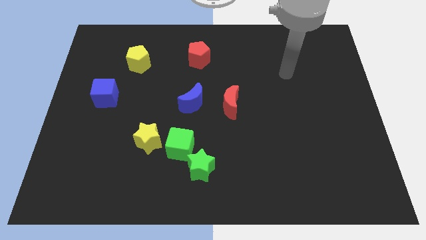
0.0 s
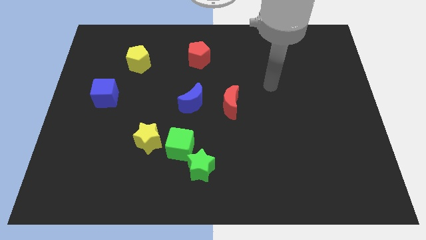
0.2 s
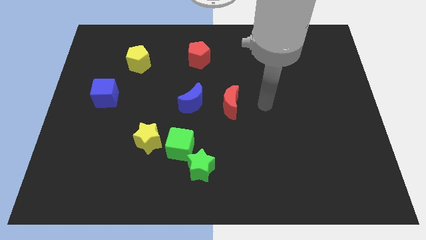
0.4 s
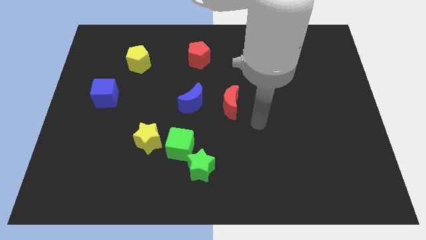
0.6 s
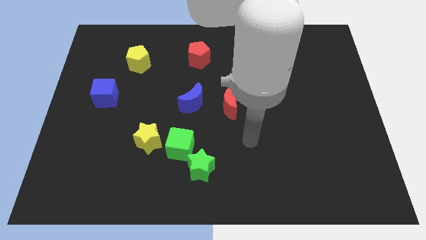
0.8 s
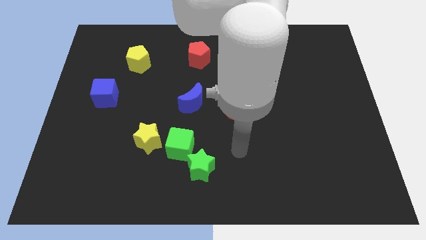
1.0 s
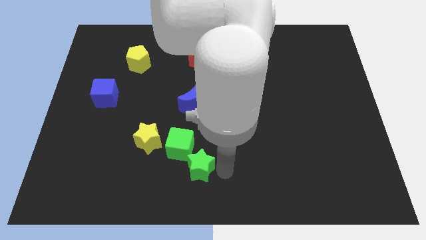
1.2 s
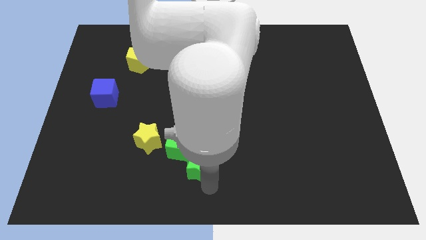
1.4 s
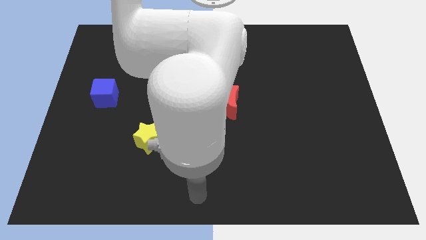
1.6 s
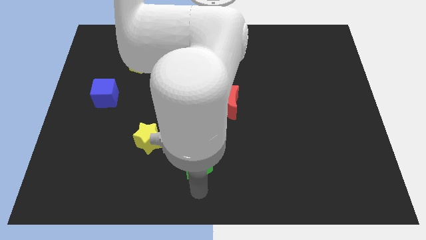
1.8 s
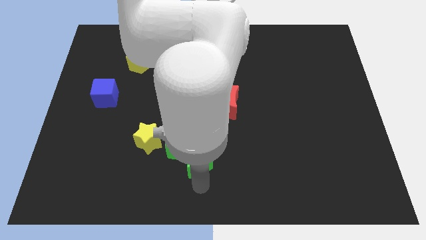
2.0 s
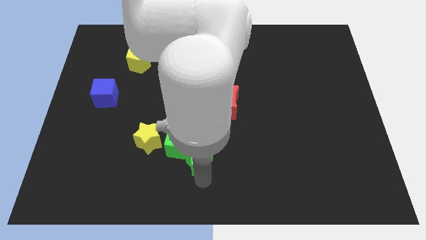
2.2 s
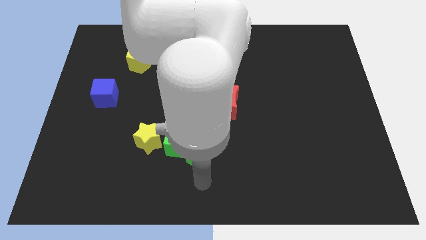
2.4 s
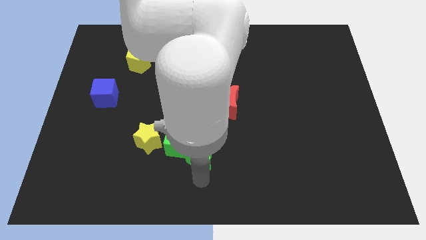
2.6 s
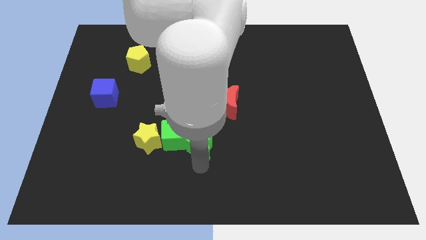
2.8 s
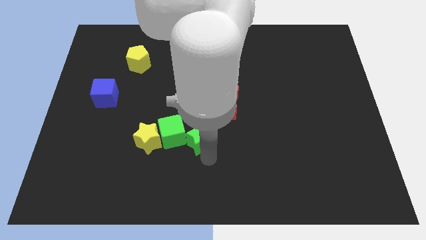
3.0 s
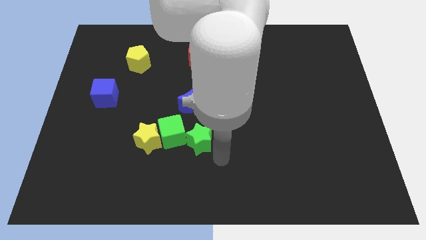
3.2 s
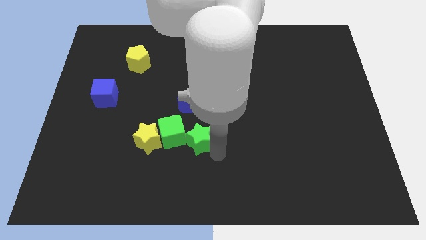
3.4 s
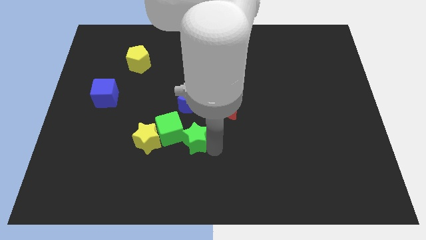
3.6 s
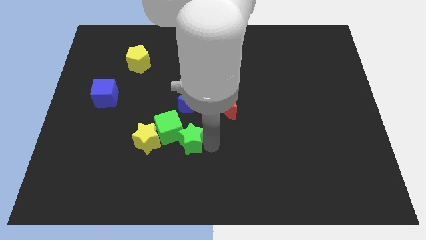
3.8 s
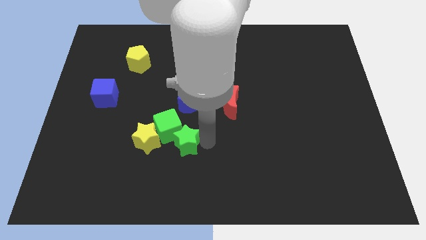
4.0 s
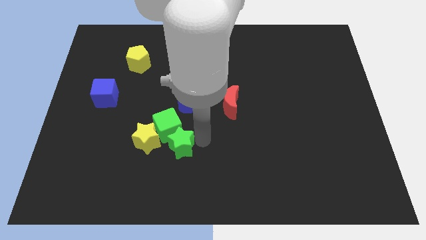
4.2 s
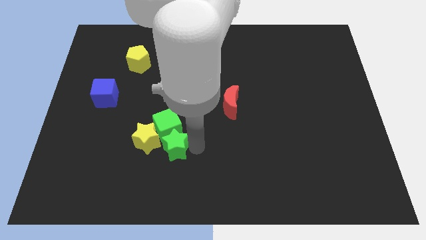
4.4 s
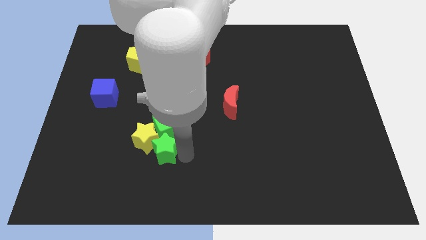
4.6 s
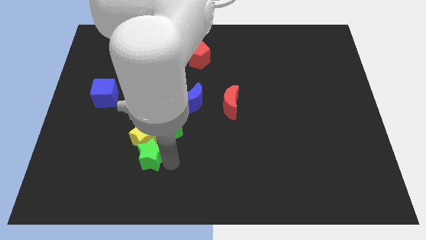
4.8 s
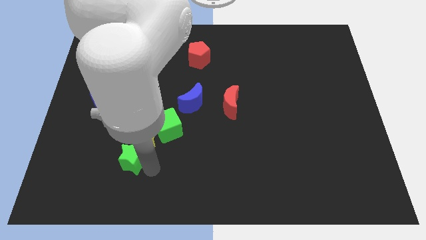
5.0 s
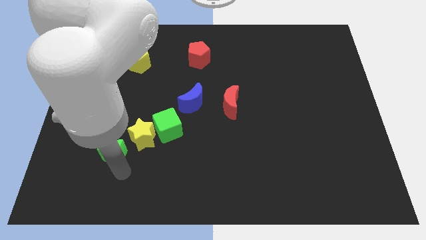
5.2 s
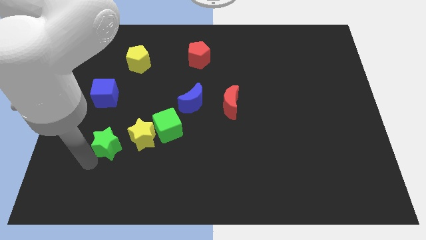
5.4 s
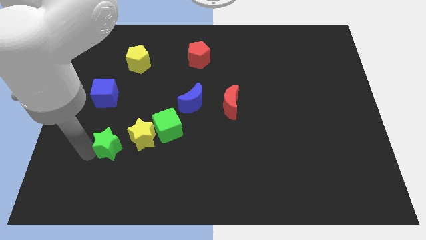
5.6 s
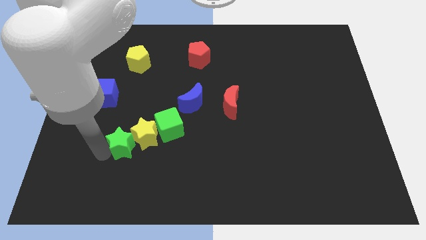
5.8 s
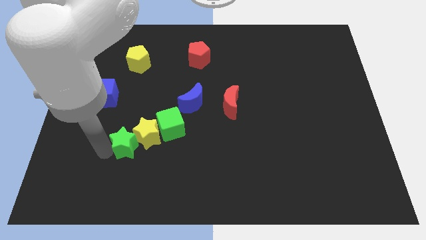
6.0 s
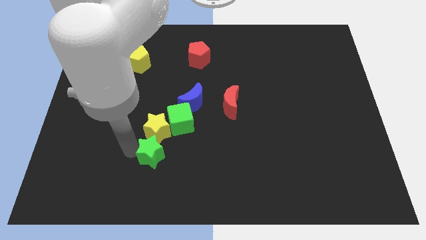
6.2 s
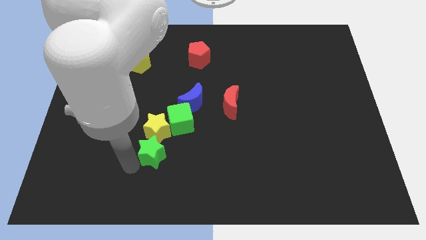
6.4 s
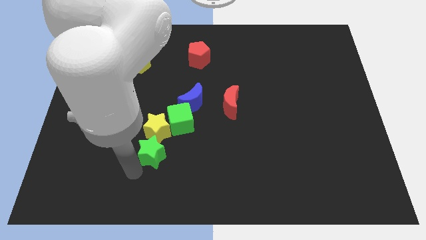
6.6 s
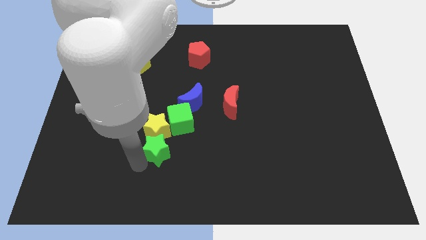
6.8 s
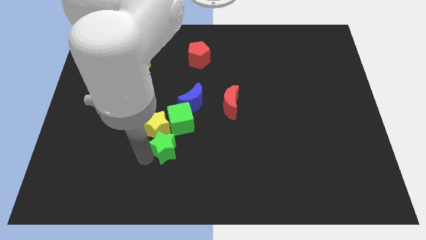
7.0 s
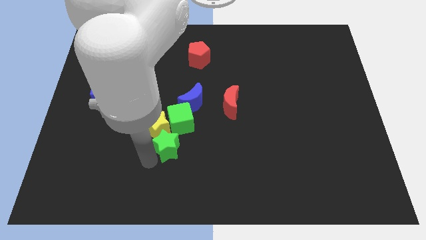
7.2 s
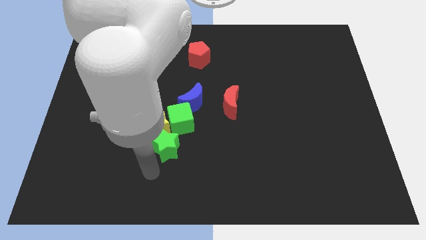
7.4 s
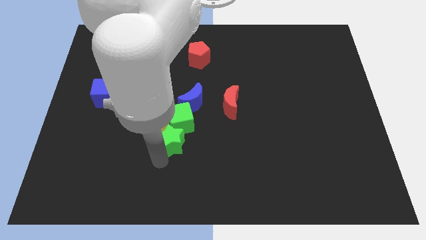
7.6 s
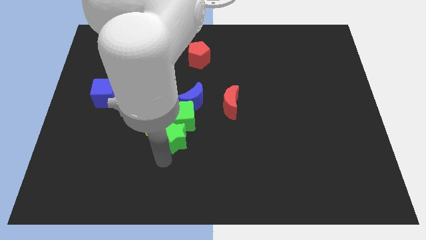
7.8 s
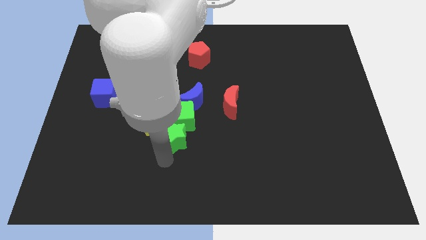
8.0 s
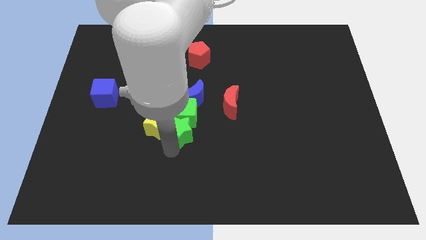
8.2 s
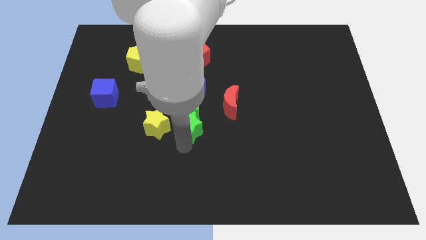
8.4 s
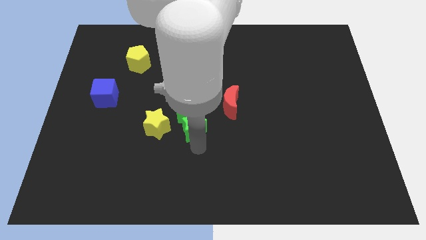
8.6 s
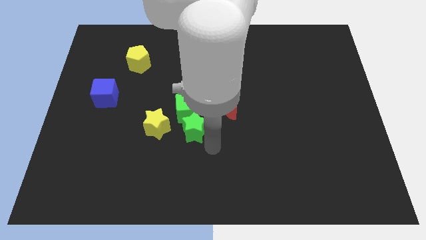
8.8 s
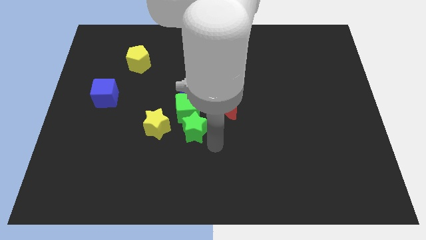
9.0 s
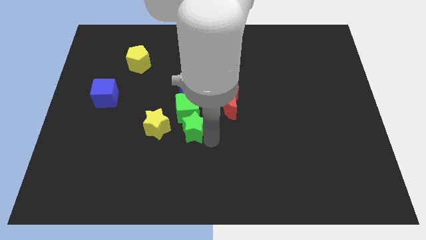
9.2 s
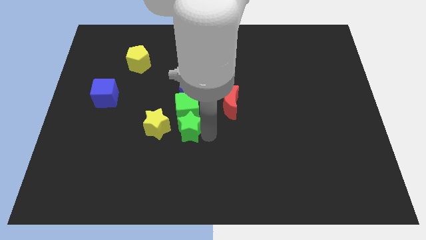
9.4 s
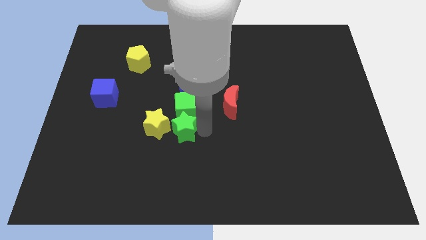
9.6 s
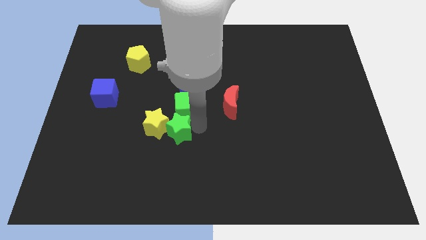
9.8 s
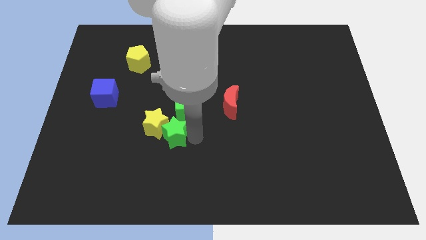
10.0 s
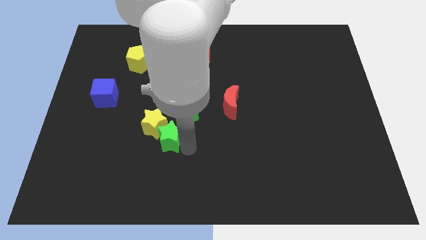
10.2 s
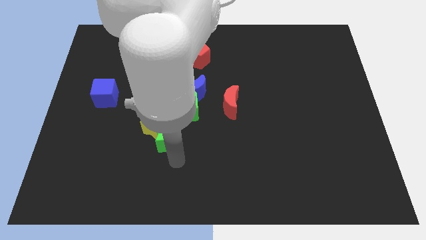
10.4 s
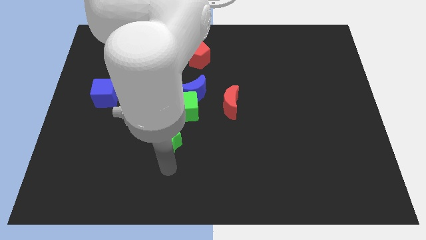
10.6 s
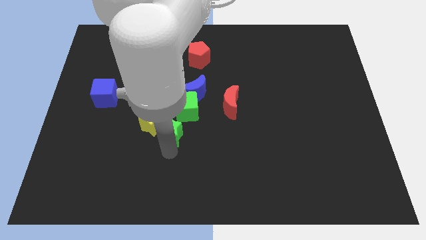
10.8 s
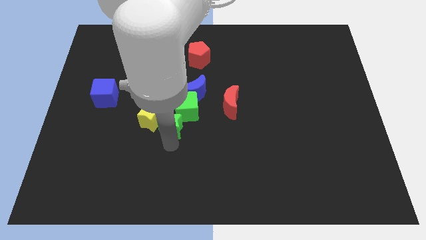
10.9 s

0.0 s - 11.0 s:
slide the green star to the bottom left side of the blue moon

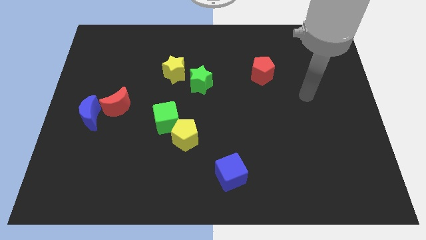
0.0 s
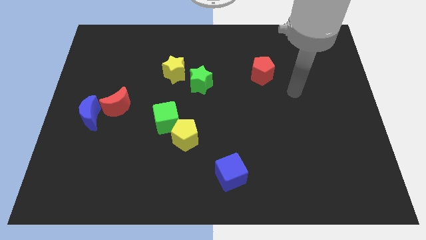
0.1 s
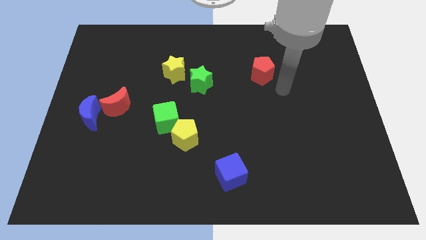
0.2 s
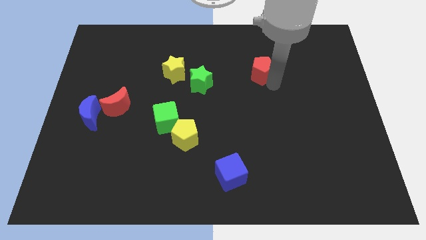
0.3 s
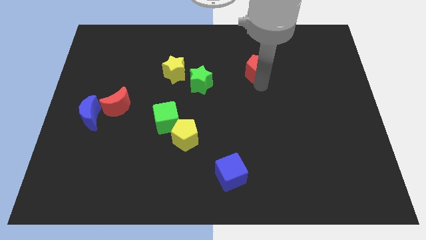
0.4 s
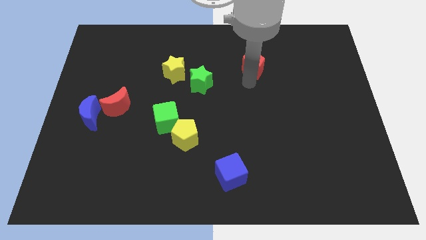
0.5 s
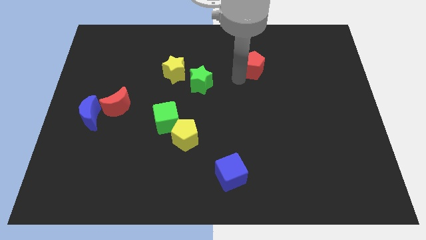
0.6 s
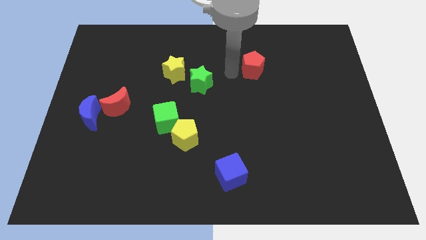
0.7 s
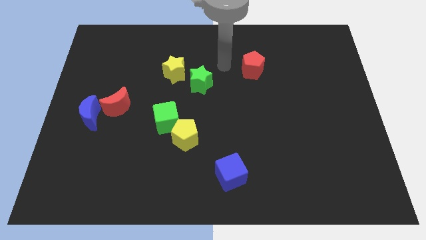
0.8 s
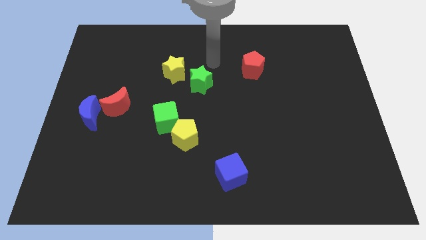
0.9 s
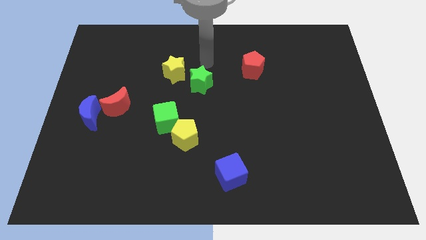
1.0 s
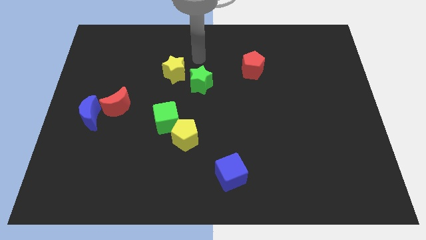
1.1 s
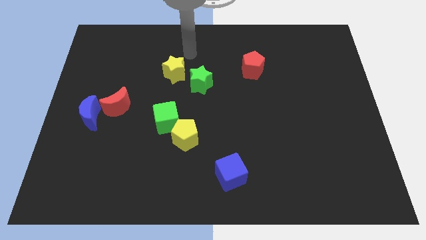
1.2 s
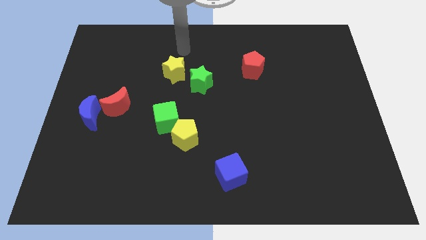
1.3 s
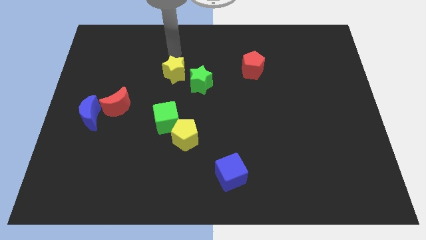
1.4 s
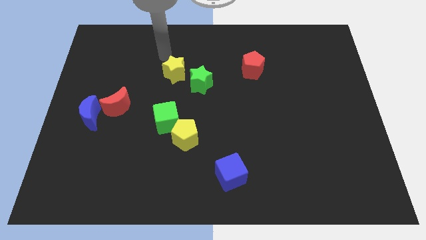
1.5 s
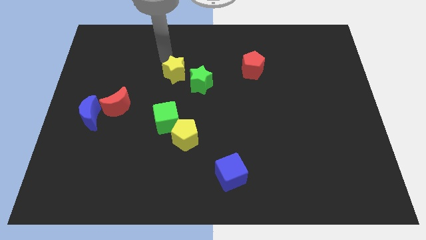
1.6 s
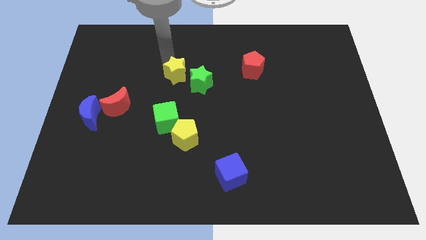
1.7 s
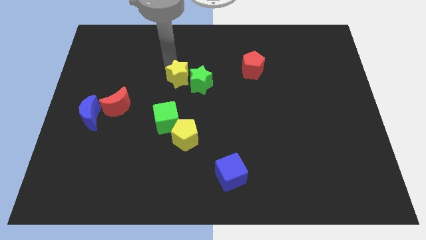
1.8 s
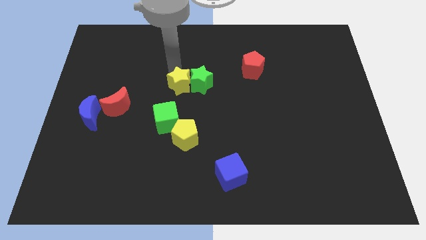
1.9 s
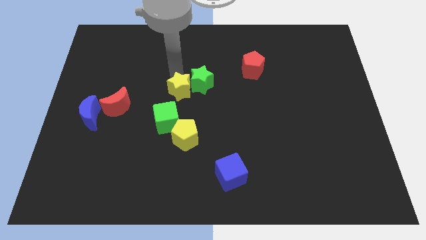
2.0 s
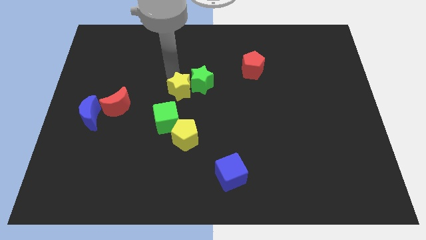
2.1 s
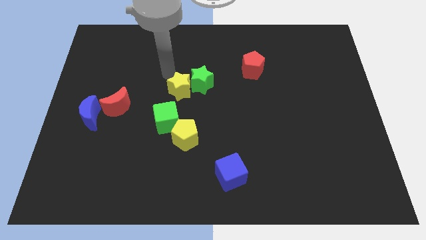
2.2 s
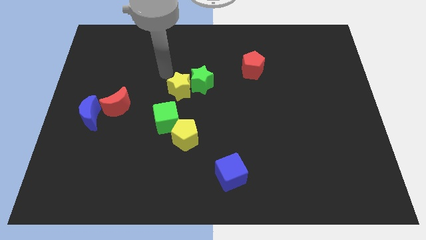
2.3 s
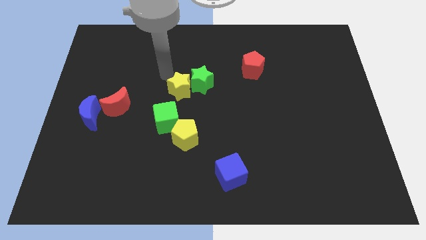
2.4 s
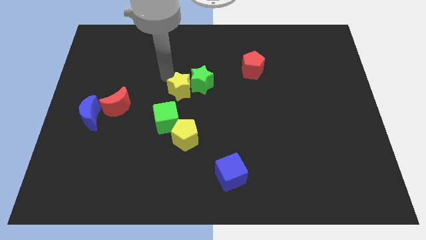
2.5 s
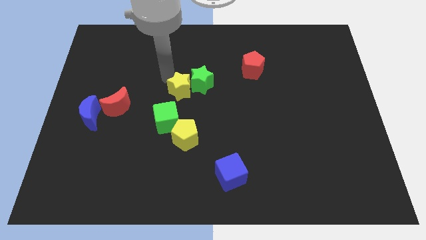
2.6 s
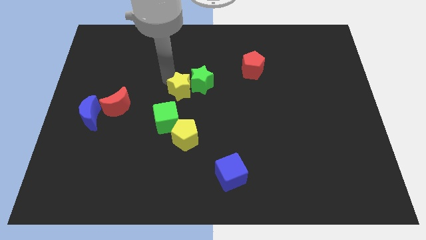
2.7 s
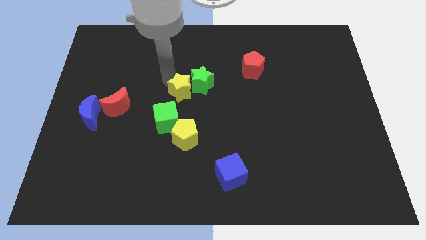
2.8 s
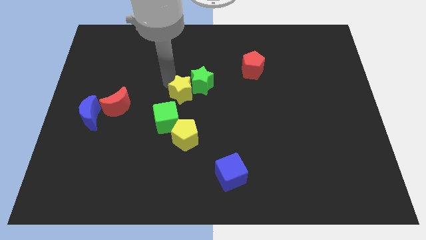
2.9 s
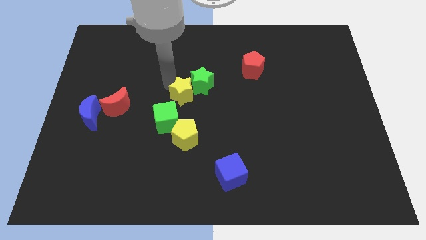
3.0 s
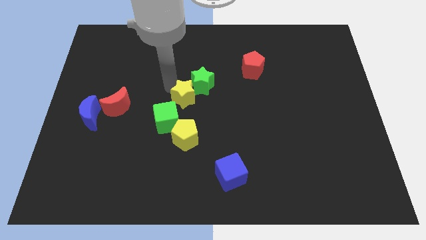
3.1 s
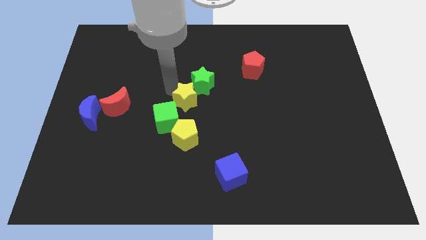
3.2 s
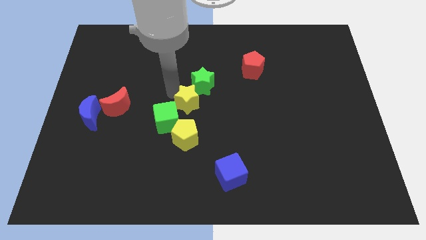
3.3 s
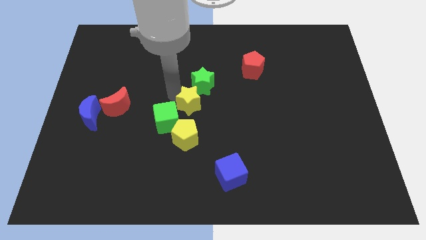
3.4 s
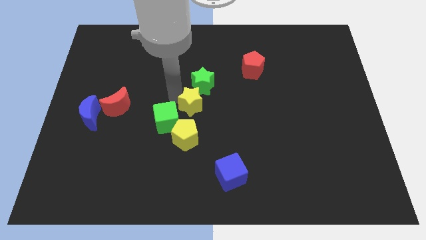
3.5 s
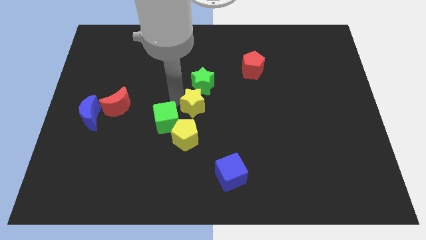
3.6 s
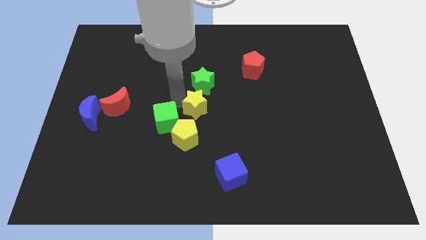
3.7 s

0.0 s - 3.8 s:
move the yellow star to the top right side of the yellow pentagon
